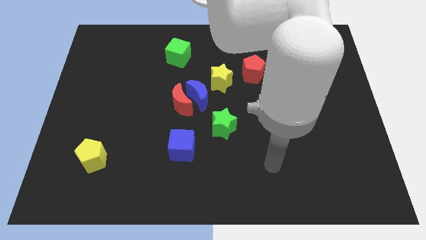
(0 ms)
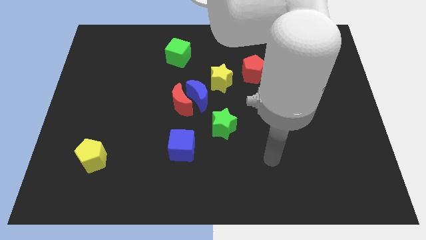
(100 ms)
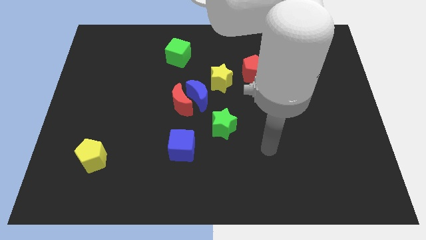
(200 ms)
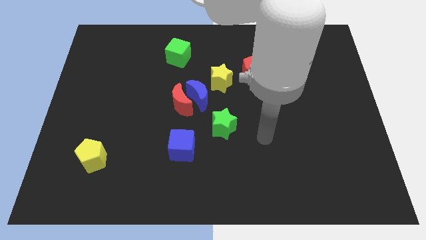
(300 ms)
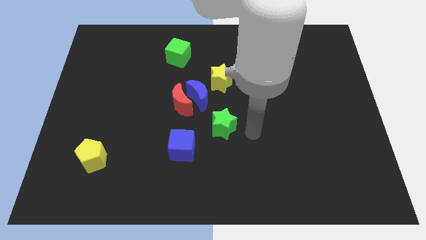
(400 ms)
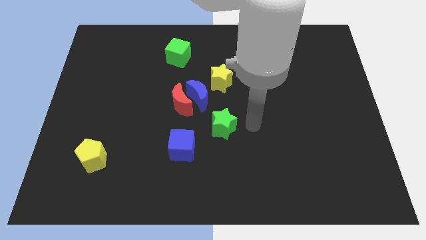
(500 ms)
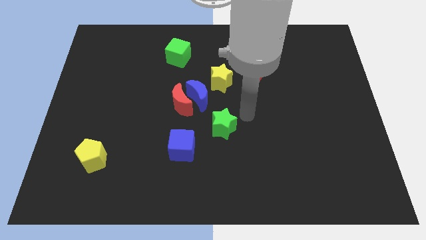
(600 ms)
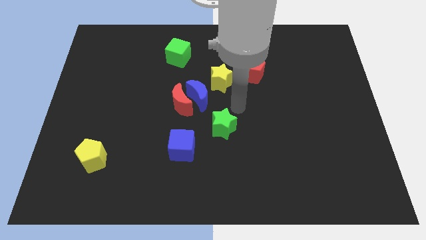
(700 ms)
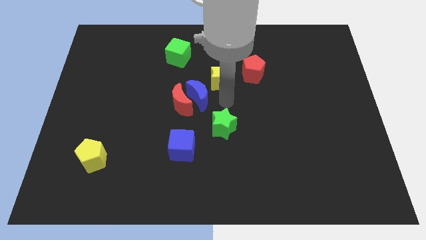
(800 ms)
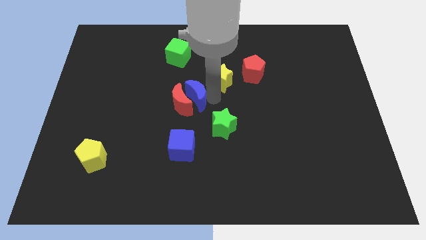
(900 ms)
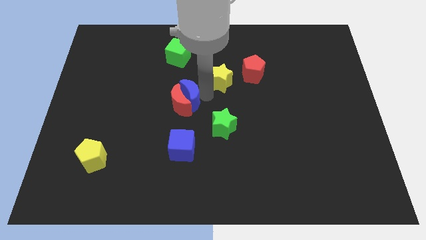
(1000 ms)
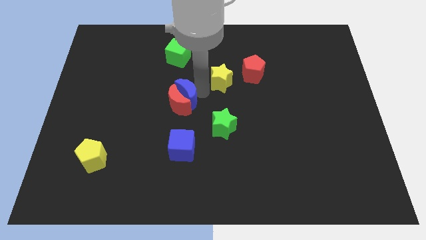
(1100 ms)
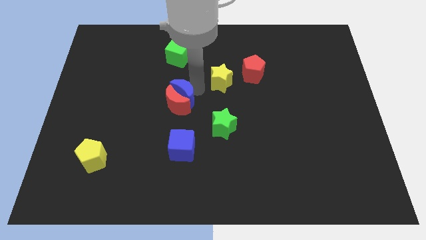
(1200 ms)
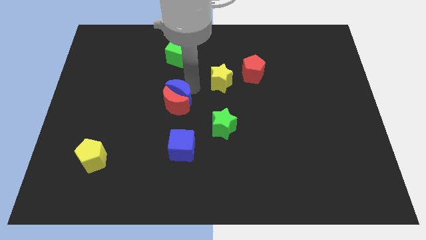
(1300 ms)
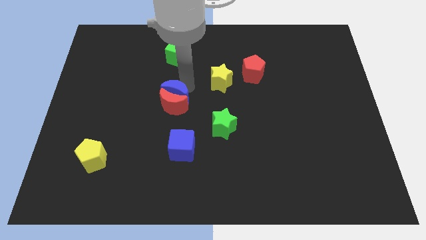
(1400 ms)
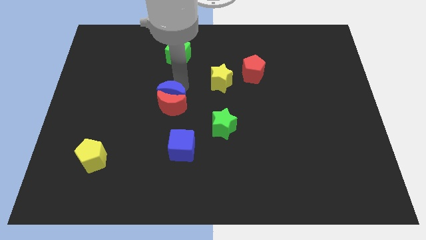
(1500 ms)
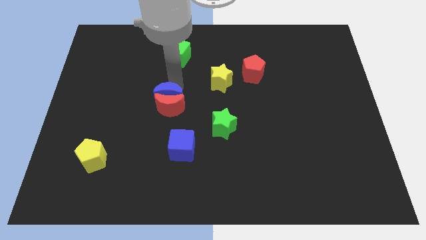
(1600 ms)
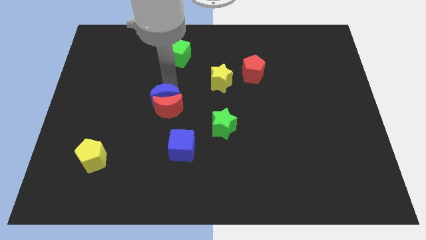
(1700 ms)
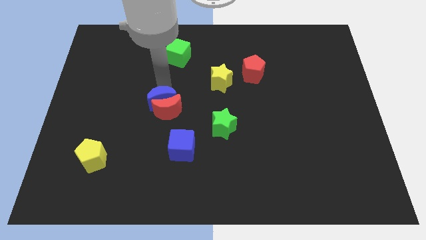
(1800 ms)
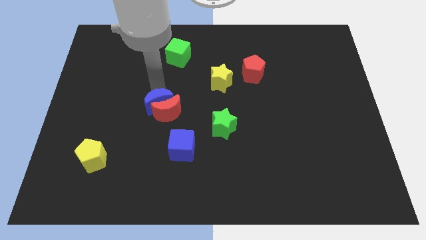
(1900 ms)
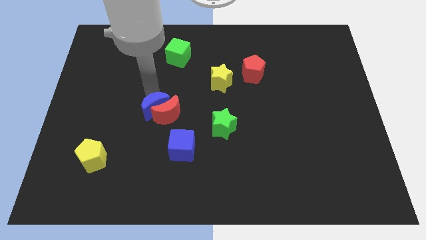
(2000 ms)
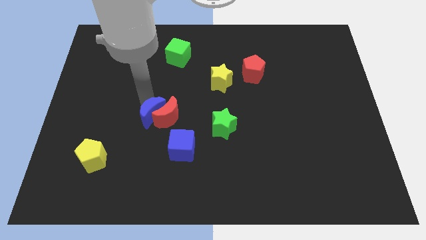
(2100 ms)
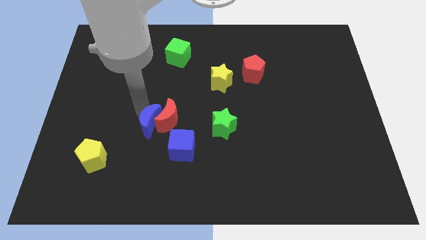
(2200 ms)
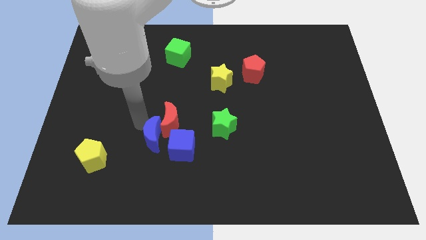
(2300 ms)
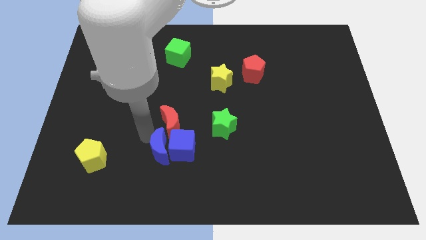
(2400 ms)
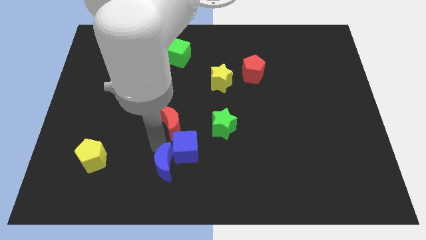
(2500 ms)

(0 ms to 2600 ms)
separate the red moon from the blue moon

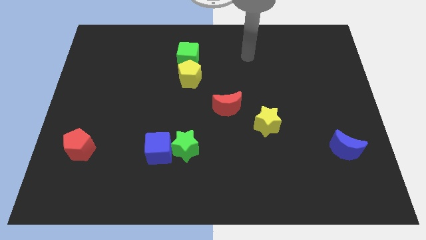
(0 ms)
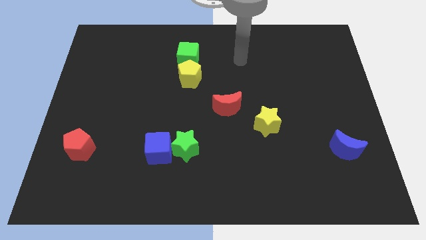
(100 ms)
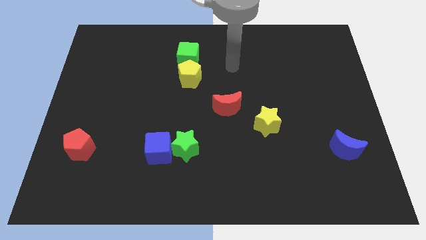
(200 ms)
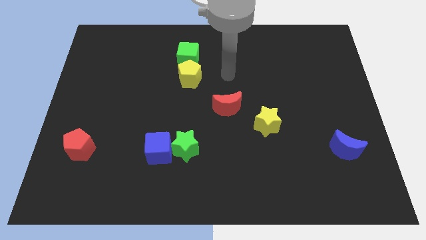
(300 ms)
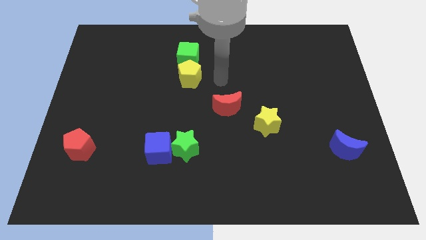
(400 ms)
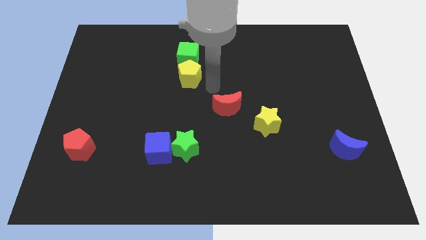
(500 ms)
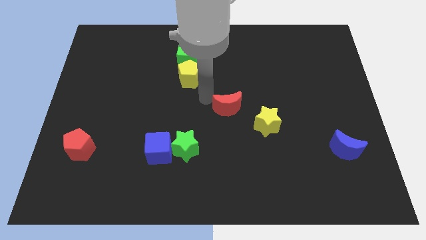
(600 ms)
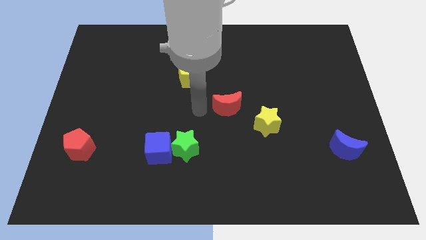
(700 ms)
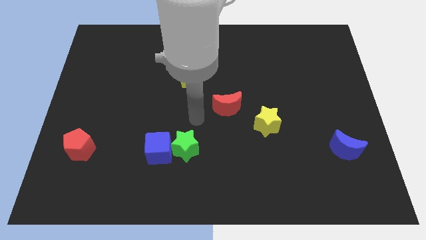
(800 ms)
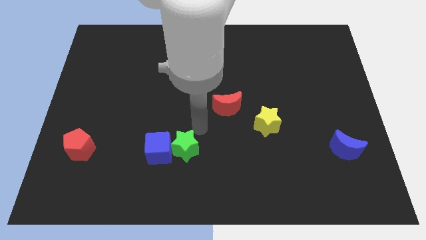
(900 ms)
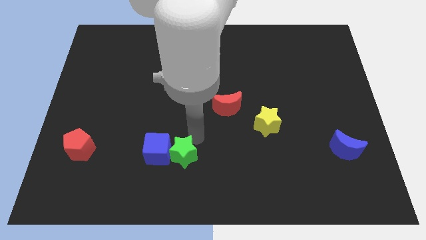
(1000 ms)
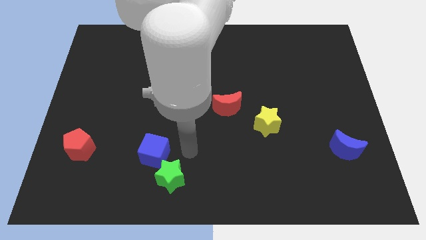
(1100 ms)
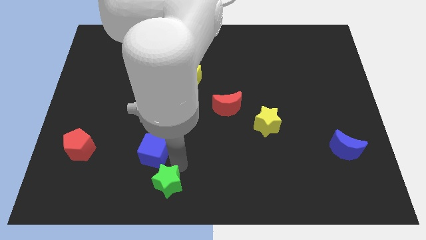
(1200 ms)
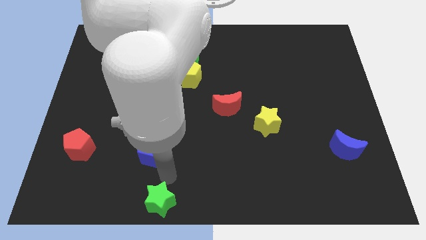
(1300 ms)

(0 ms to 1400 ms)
separate the blue cube from the green star

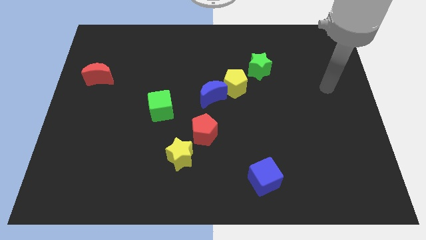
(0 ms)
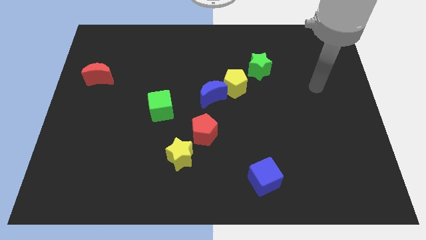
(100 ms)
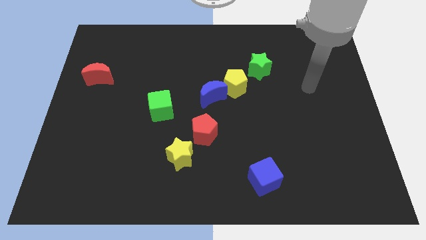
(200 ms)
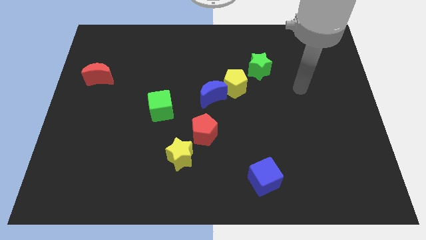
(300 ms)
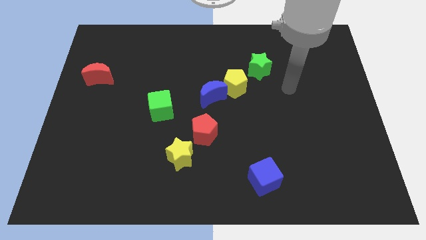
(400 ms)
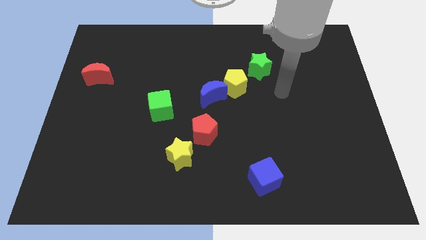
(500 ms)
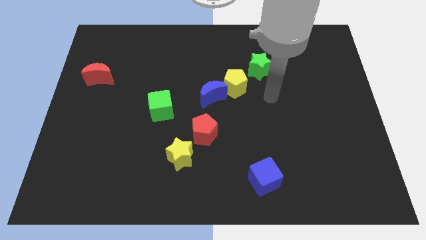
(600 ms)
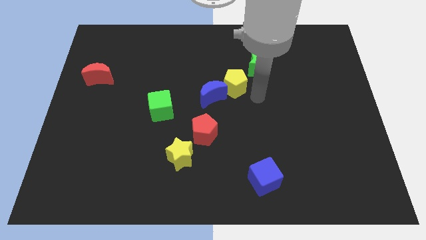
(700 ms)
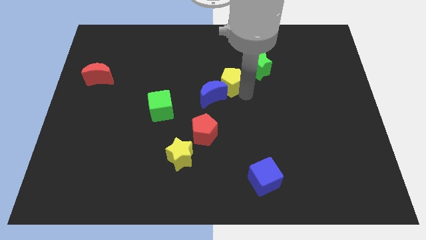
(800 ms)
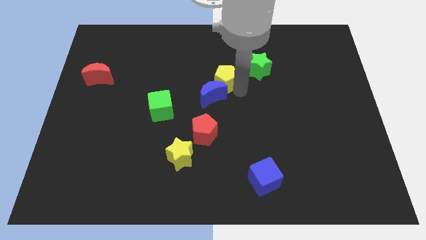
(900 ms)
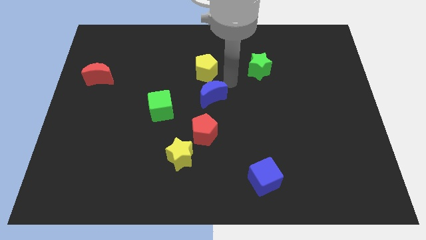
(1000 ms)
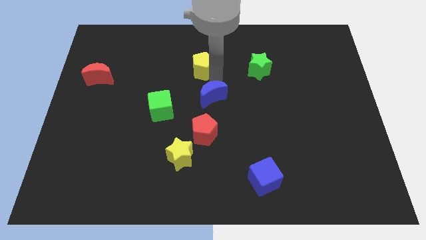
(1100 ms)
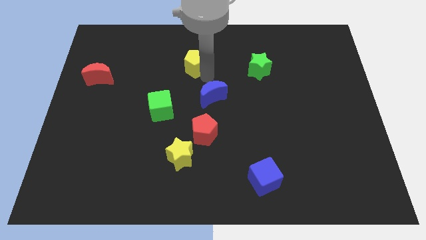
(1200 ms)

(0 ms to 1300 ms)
pull the blue moon apart from the yellow pentagon

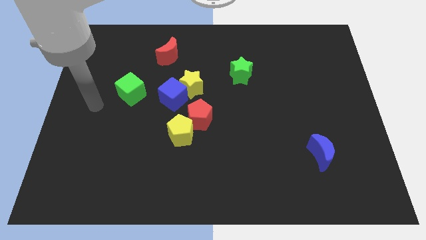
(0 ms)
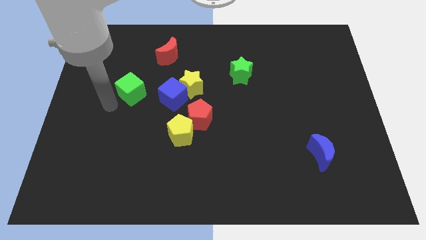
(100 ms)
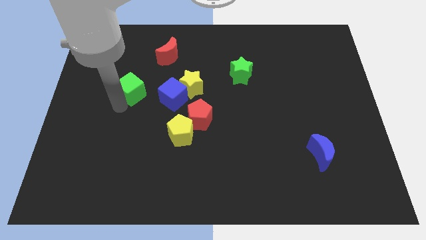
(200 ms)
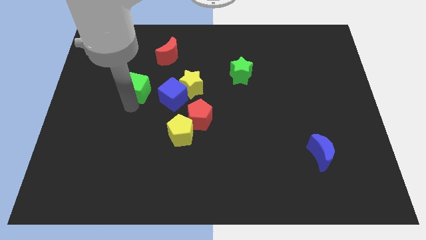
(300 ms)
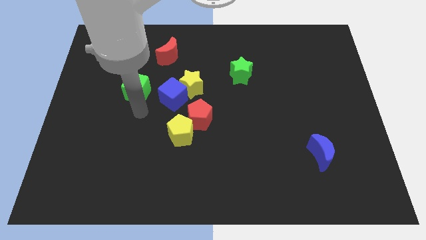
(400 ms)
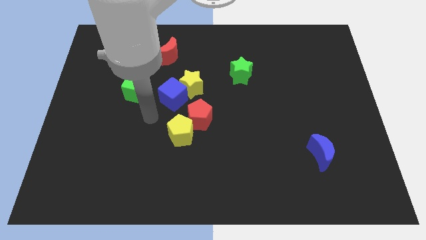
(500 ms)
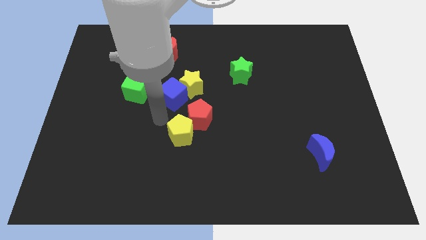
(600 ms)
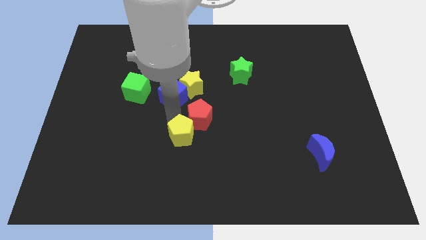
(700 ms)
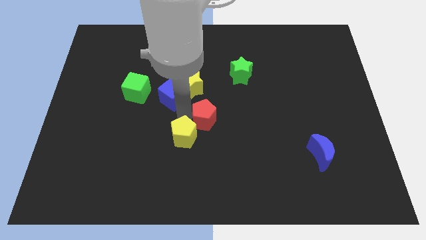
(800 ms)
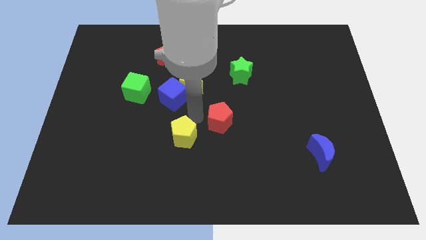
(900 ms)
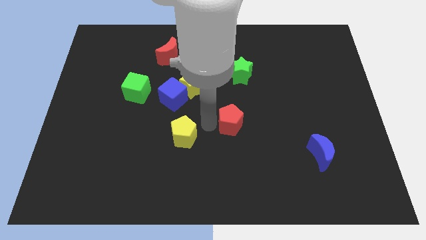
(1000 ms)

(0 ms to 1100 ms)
pull the yellow pentagon apart from the red pentagon

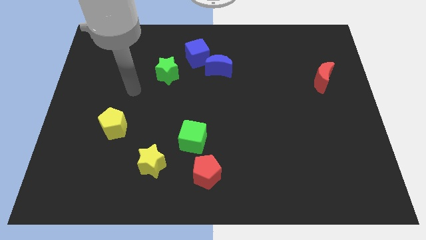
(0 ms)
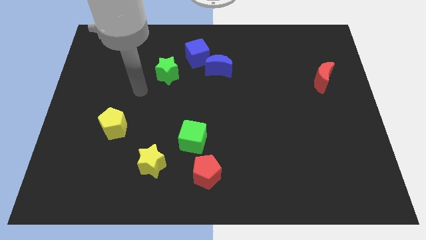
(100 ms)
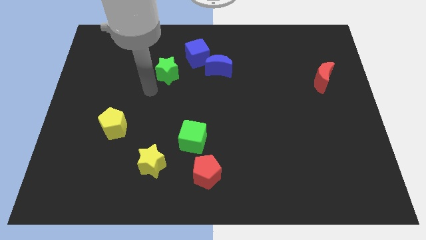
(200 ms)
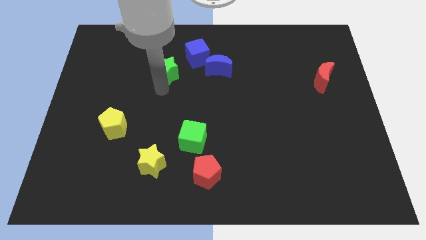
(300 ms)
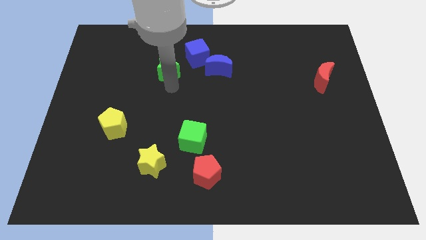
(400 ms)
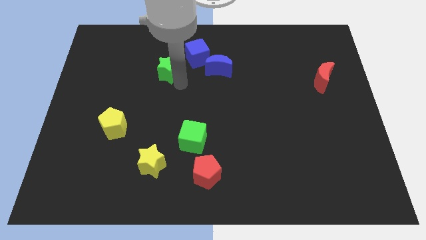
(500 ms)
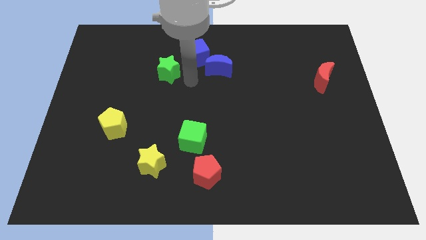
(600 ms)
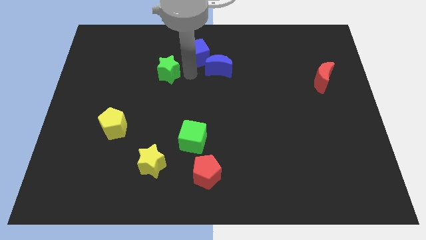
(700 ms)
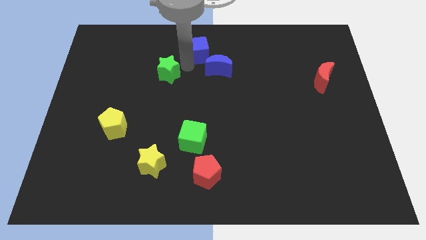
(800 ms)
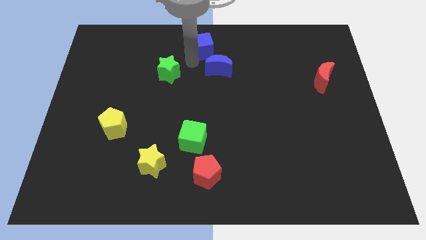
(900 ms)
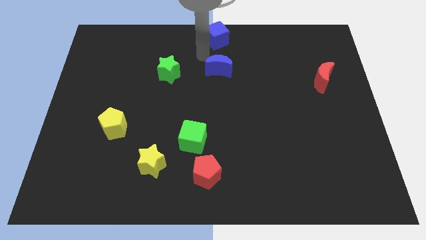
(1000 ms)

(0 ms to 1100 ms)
pull the blue moon apart from the blue cube

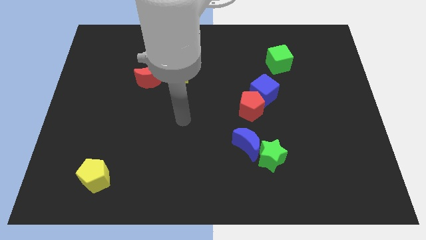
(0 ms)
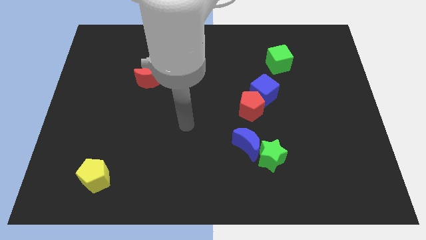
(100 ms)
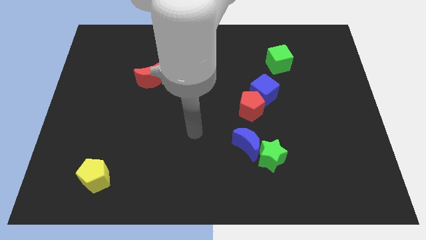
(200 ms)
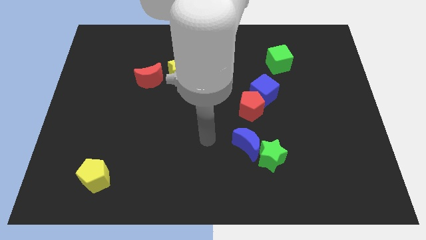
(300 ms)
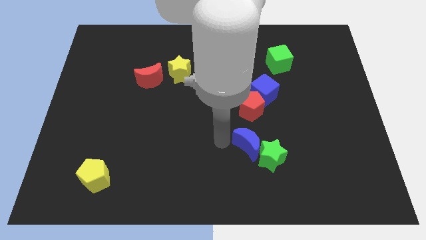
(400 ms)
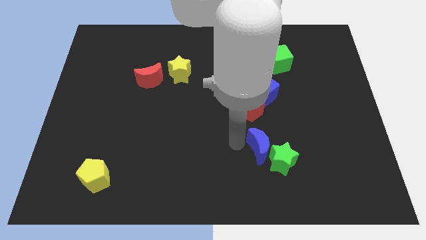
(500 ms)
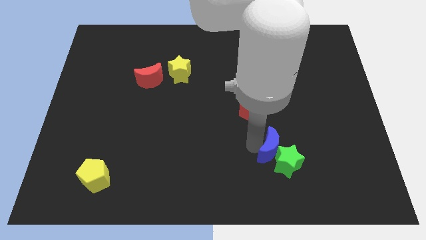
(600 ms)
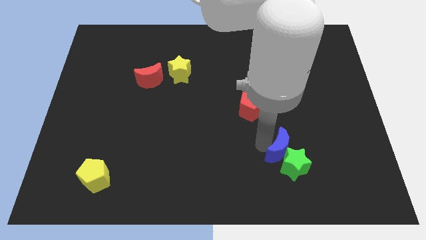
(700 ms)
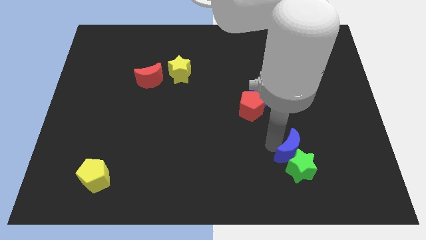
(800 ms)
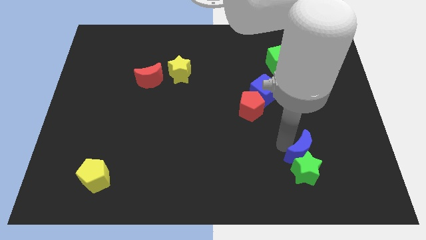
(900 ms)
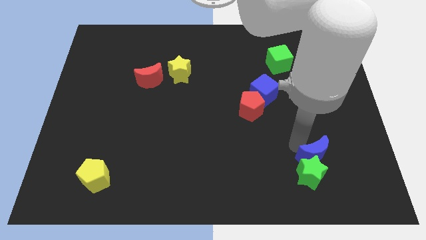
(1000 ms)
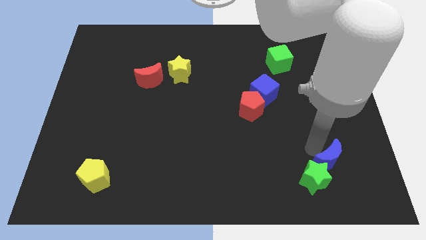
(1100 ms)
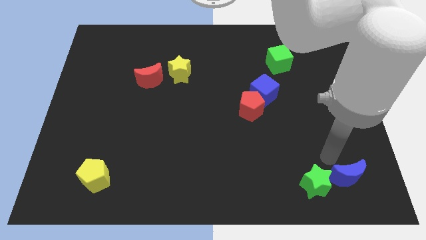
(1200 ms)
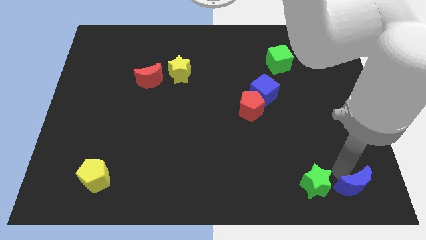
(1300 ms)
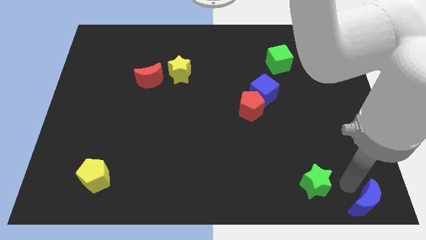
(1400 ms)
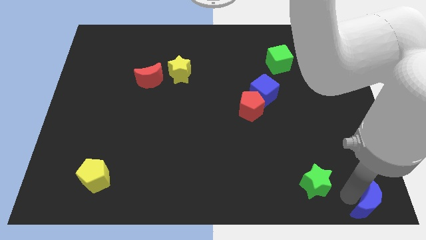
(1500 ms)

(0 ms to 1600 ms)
move the green star away from the blue moon

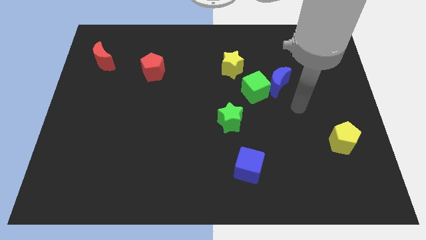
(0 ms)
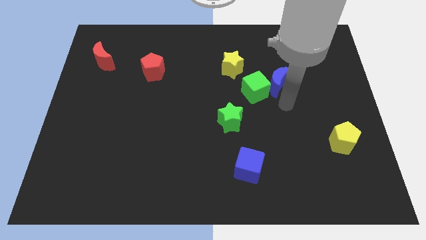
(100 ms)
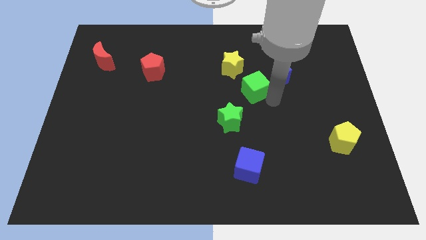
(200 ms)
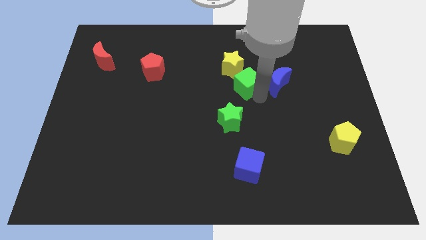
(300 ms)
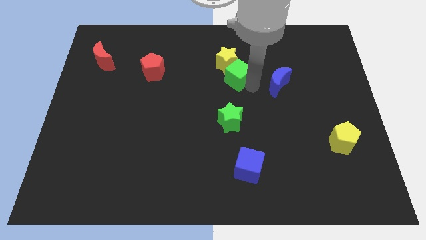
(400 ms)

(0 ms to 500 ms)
separate the blue moon from the green cube
